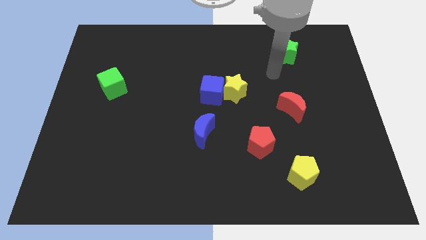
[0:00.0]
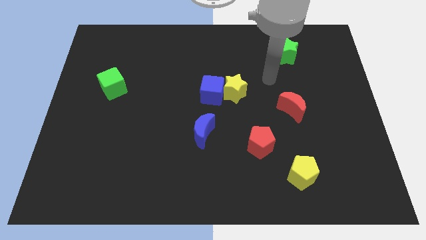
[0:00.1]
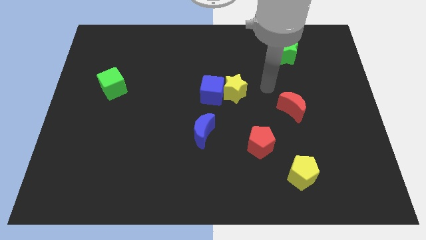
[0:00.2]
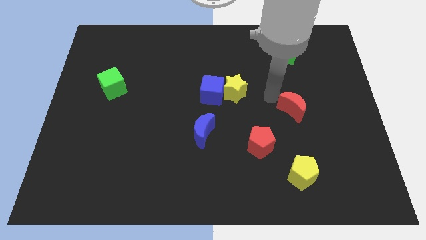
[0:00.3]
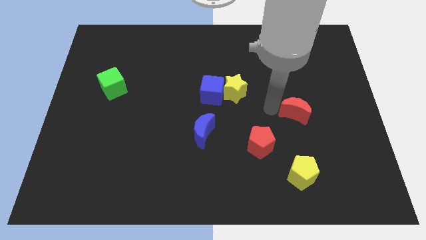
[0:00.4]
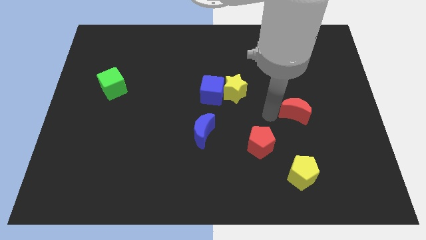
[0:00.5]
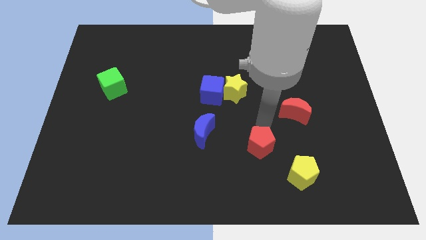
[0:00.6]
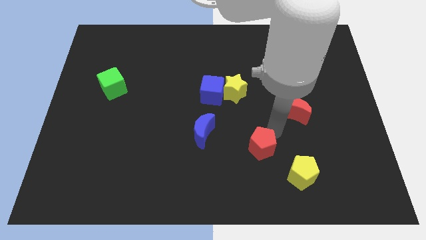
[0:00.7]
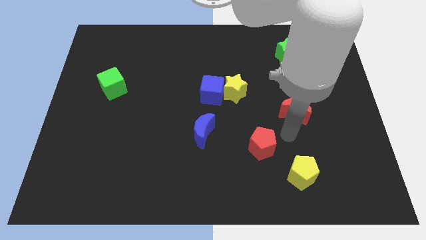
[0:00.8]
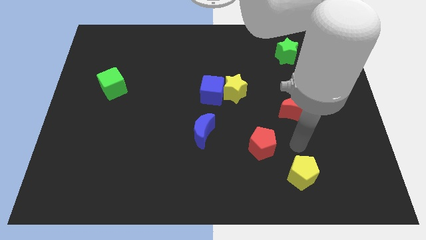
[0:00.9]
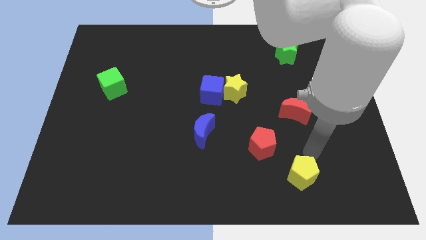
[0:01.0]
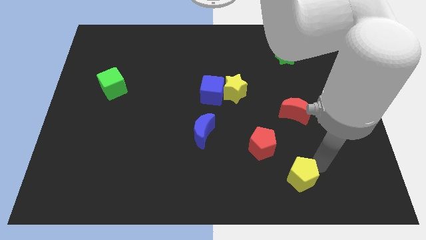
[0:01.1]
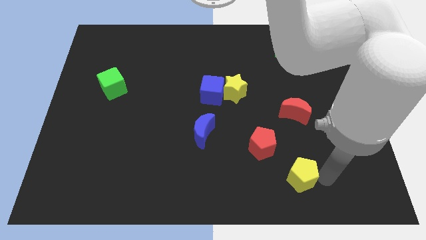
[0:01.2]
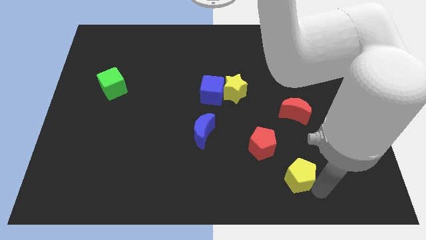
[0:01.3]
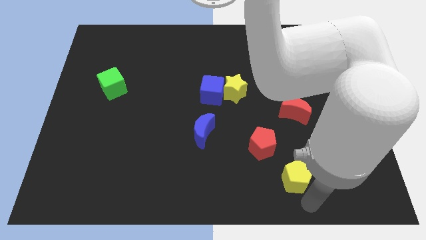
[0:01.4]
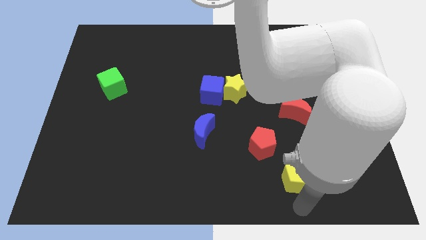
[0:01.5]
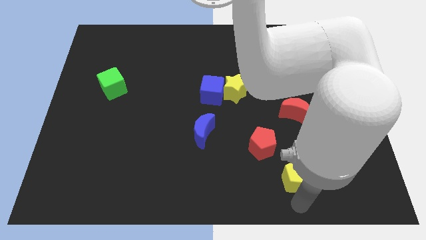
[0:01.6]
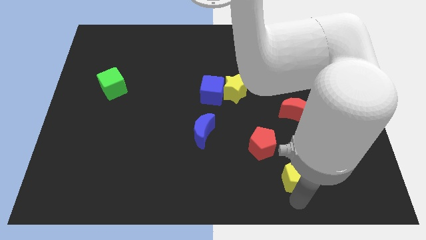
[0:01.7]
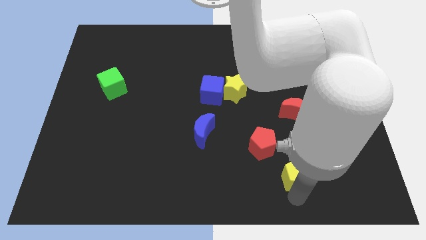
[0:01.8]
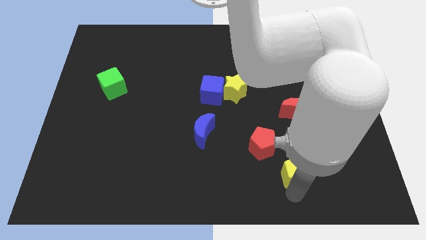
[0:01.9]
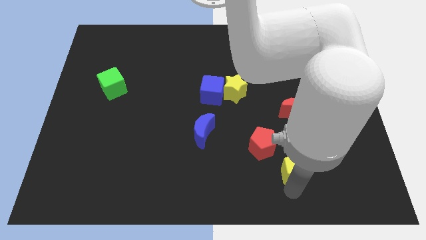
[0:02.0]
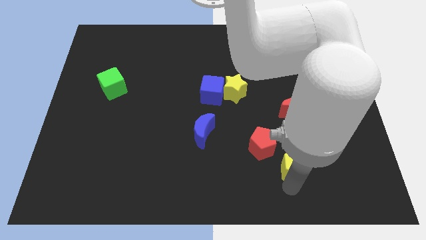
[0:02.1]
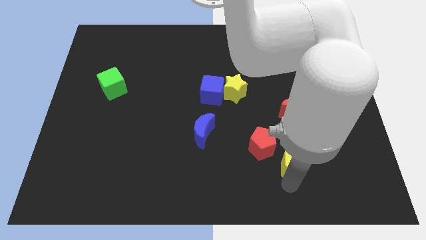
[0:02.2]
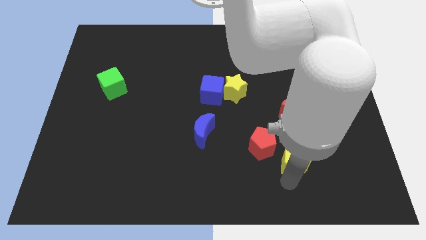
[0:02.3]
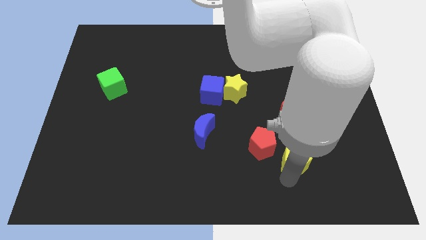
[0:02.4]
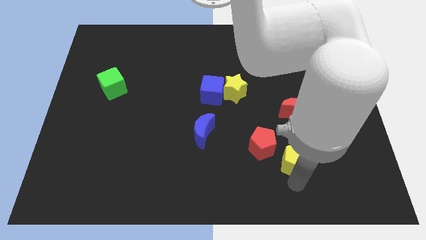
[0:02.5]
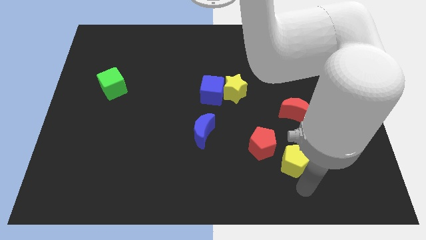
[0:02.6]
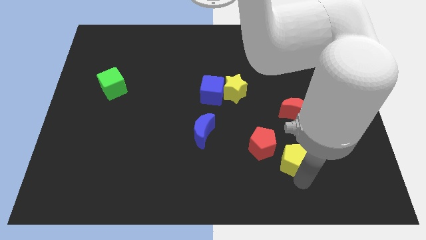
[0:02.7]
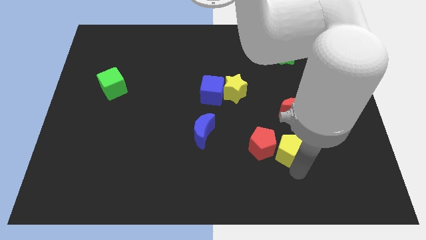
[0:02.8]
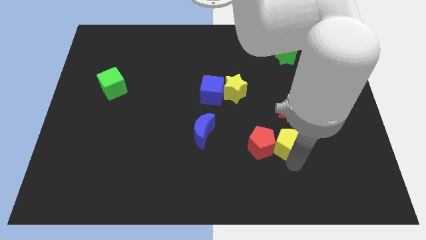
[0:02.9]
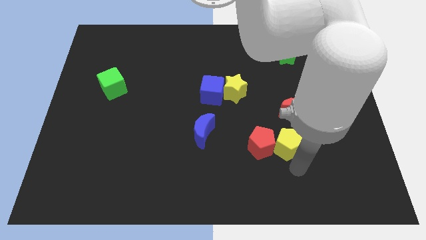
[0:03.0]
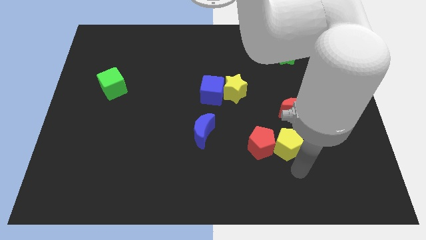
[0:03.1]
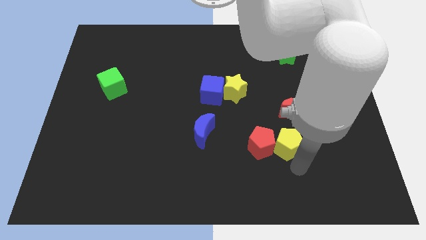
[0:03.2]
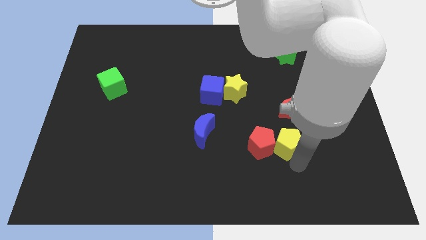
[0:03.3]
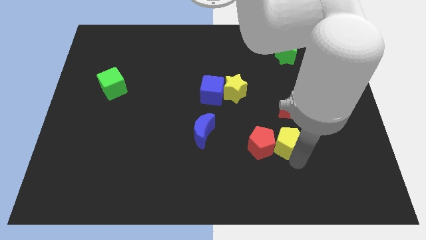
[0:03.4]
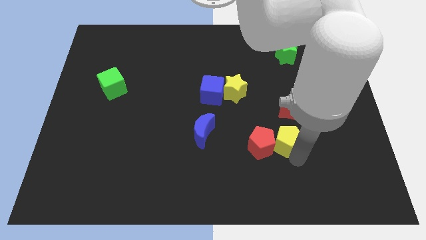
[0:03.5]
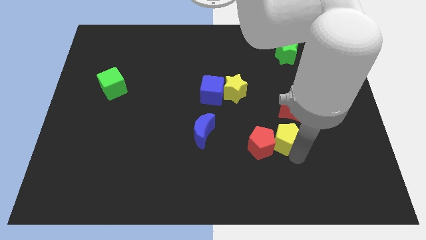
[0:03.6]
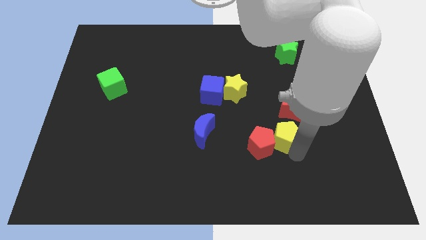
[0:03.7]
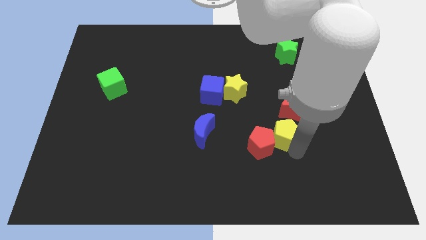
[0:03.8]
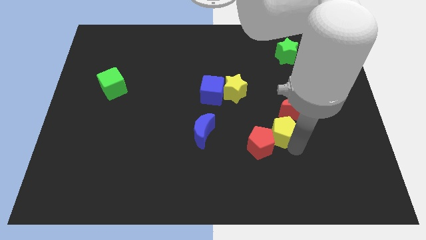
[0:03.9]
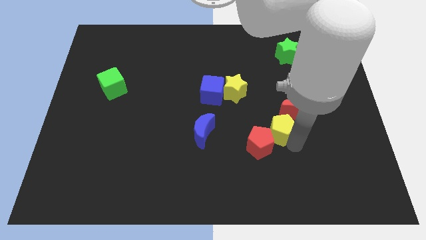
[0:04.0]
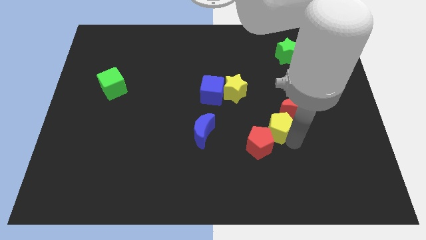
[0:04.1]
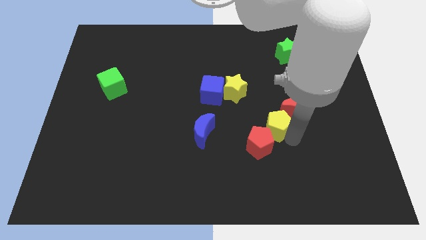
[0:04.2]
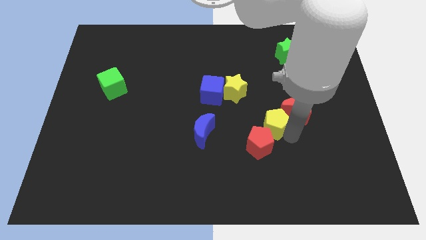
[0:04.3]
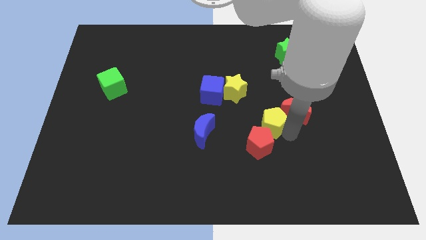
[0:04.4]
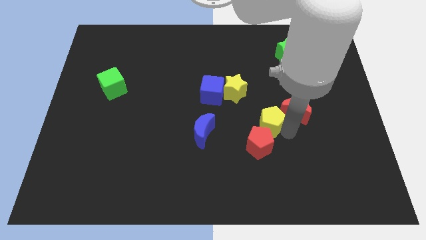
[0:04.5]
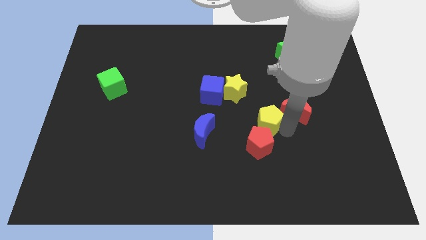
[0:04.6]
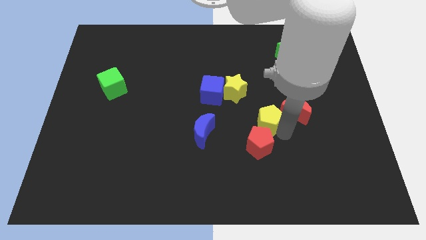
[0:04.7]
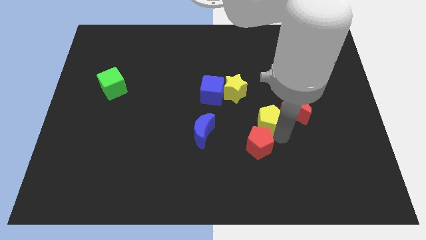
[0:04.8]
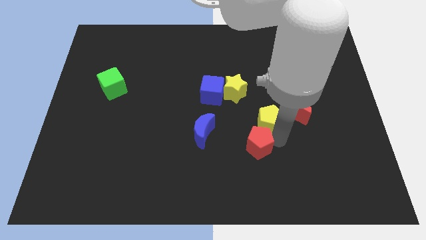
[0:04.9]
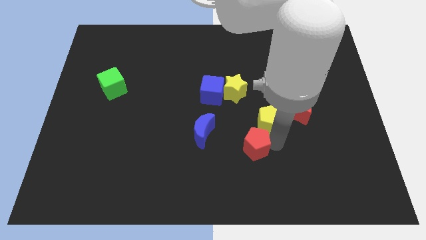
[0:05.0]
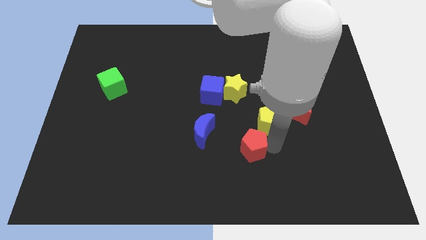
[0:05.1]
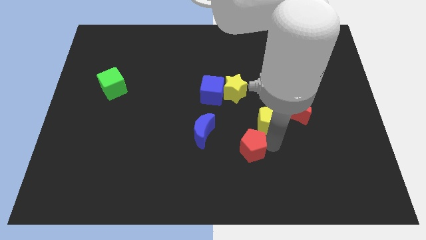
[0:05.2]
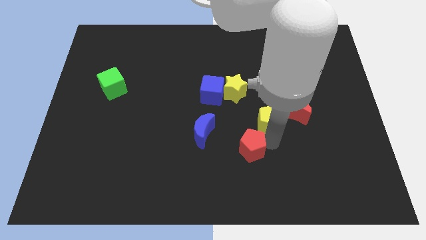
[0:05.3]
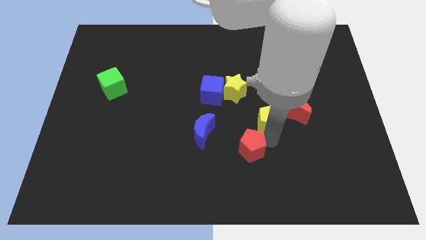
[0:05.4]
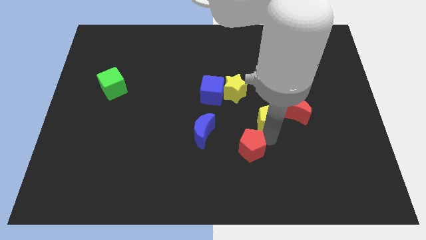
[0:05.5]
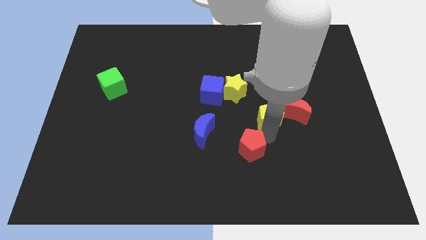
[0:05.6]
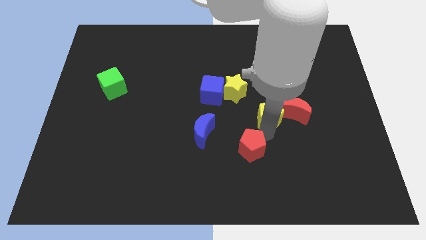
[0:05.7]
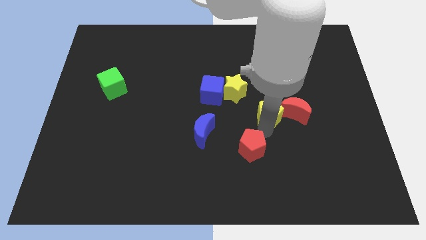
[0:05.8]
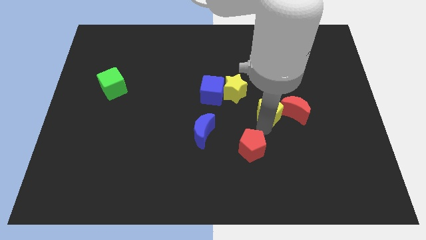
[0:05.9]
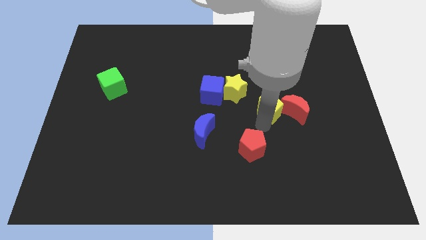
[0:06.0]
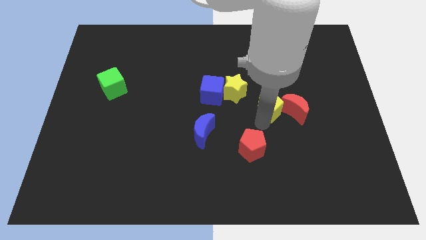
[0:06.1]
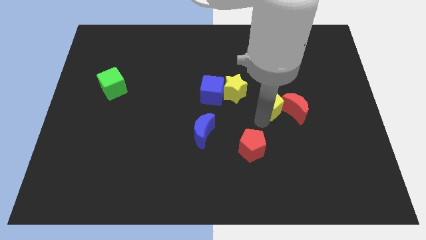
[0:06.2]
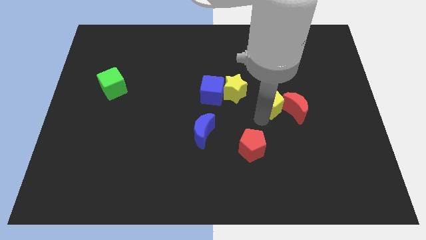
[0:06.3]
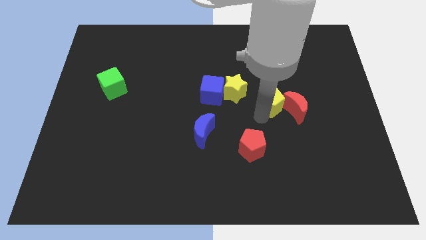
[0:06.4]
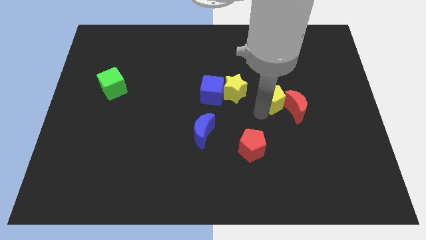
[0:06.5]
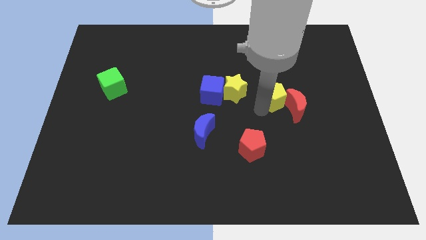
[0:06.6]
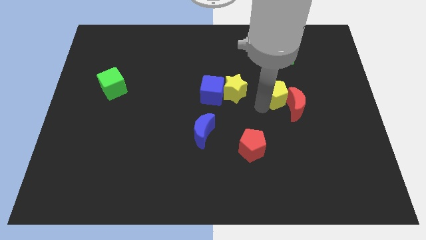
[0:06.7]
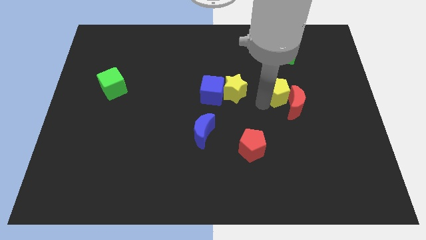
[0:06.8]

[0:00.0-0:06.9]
push the yellow pentagon to the top of the red moon
